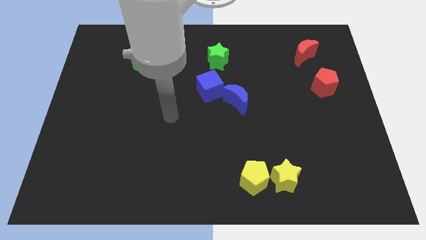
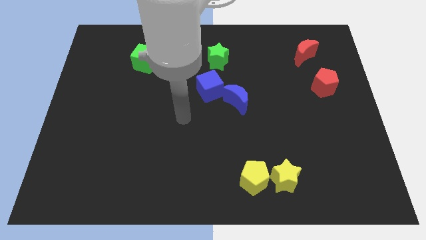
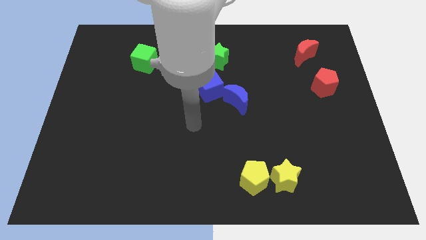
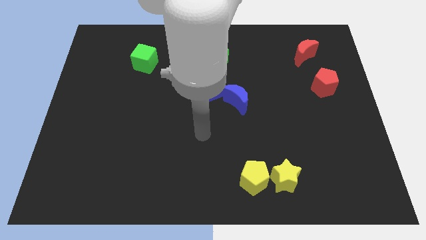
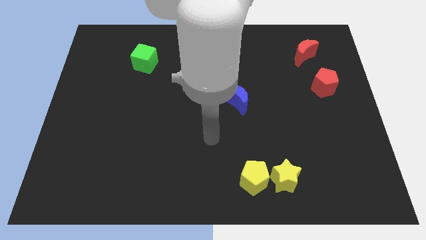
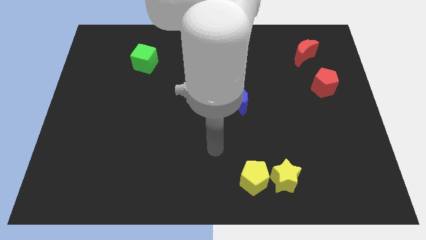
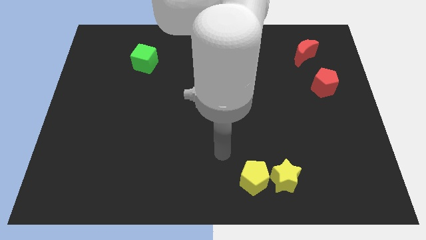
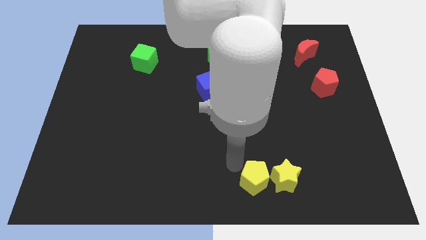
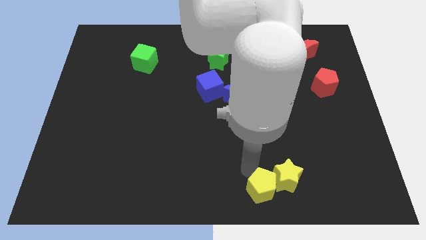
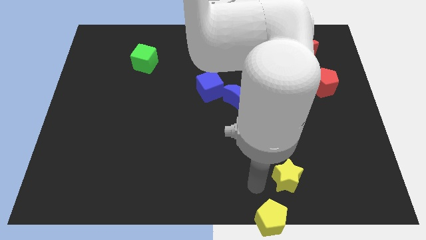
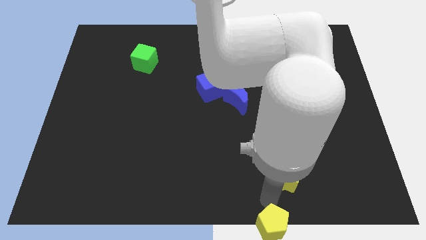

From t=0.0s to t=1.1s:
pull the yellow star apart from the yellow pentagon

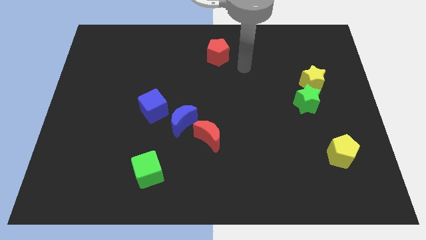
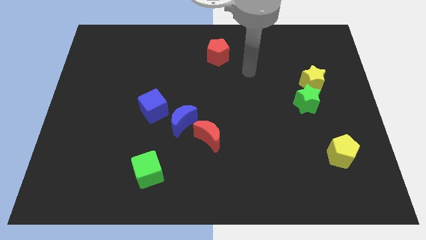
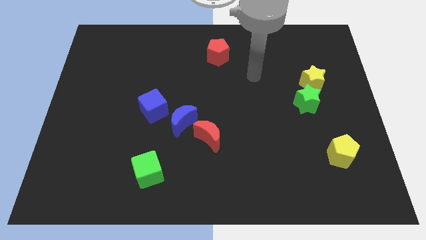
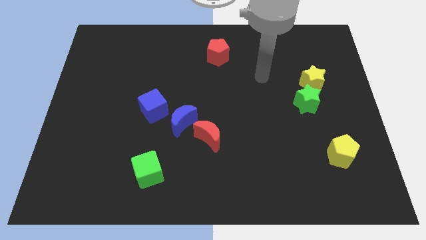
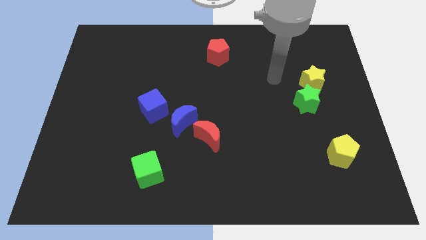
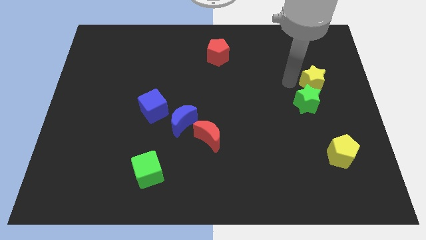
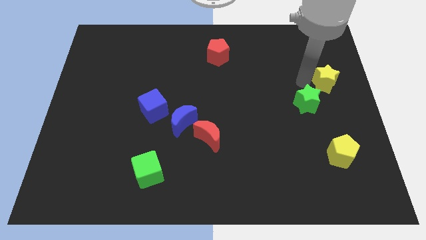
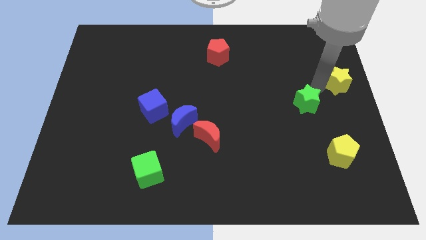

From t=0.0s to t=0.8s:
separate the green star from the yellow star

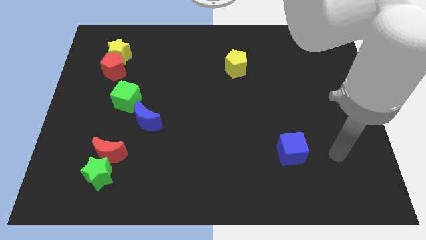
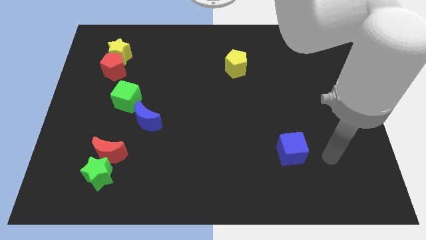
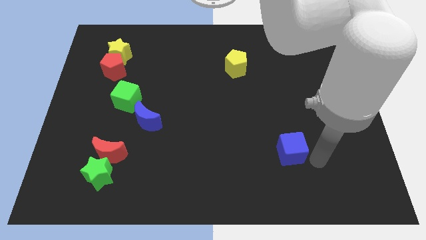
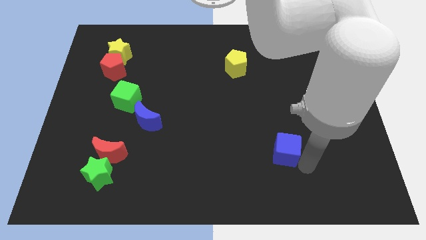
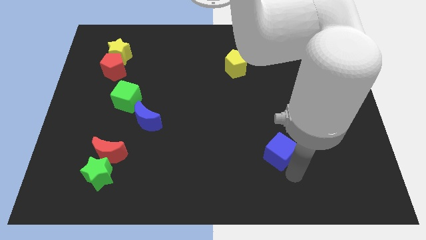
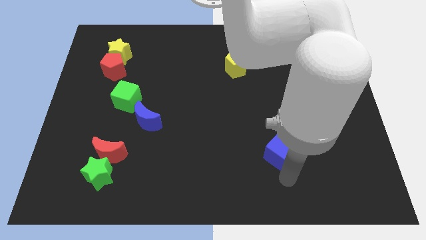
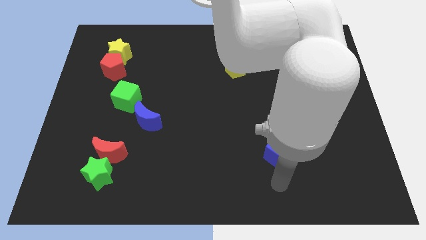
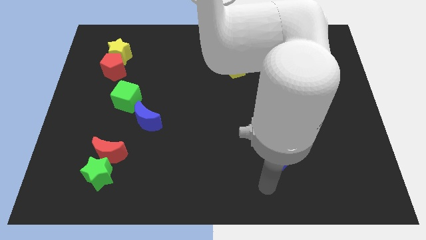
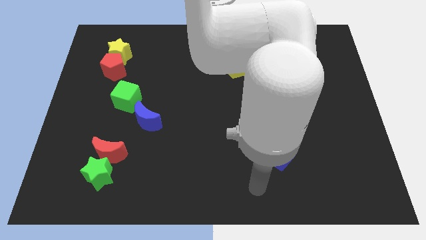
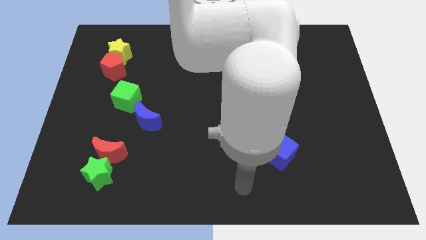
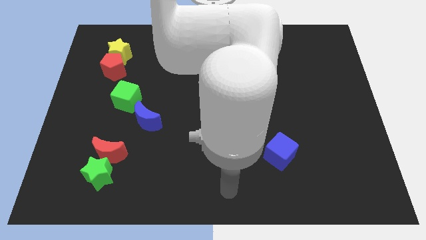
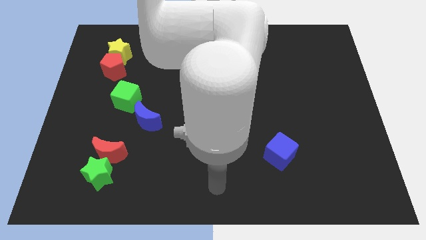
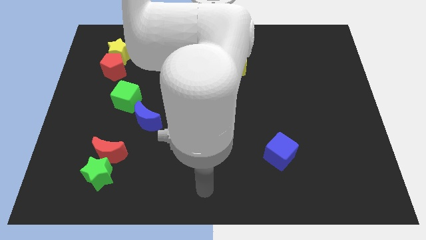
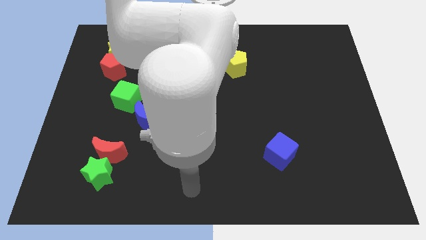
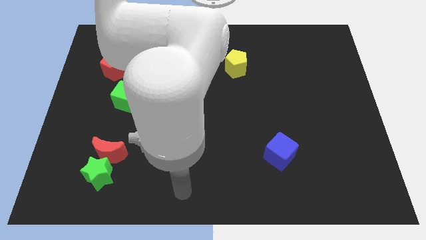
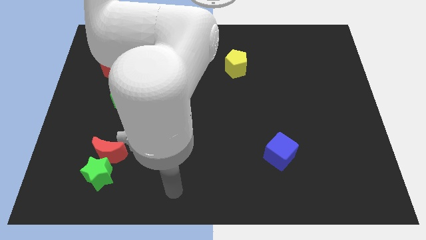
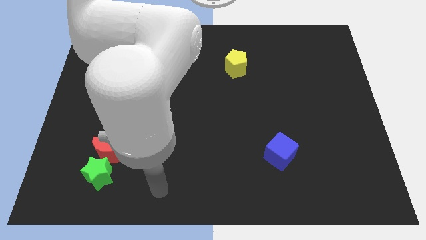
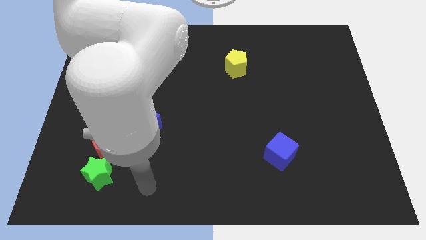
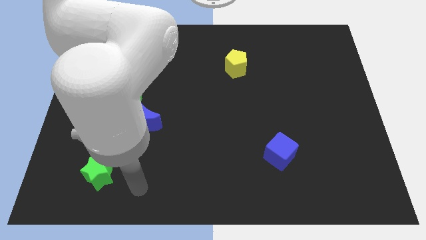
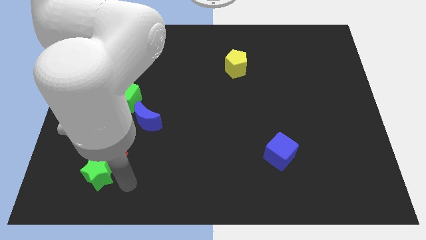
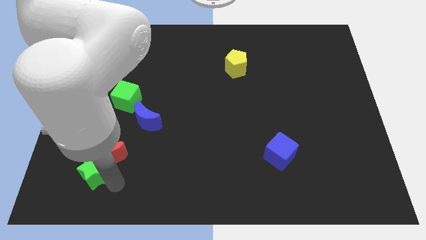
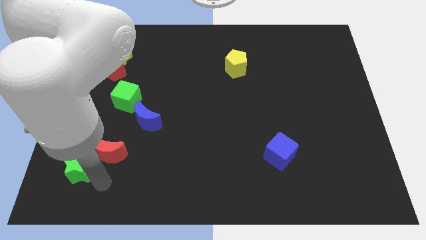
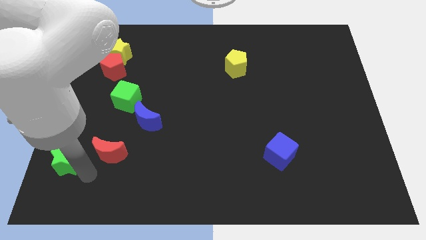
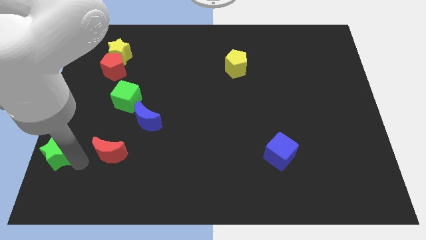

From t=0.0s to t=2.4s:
separate the red moon from the green star

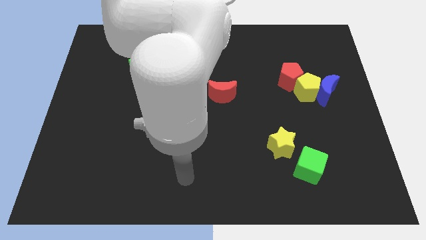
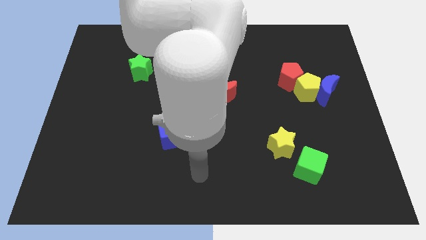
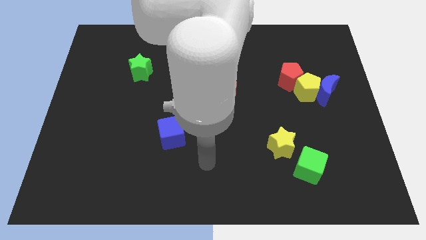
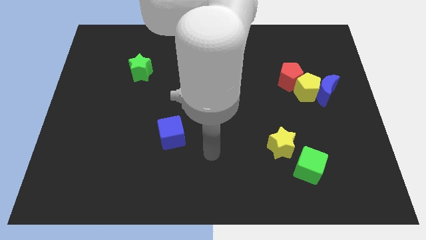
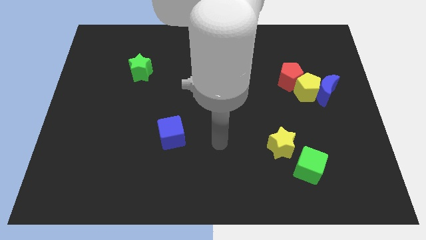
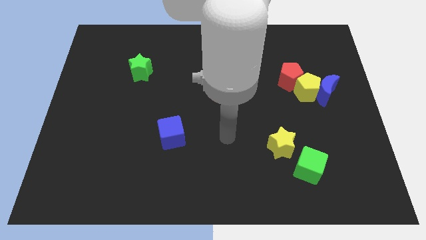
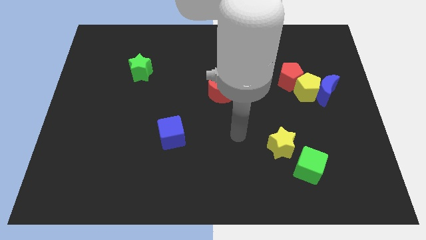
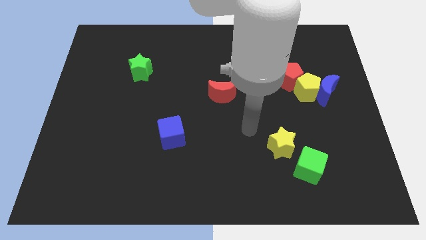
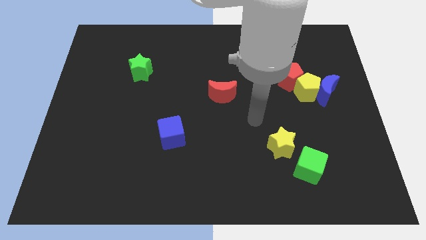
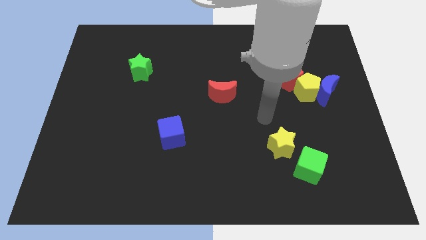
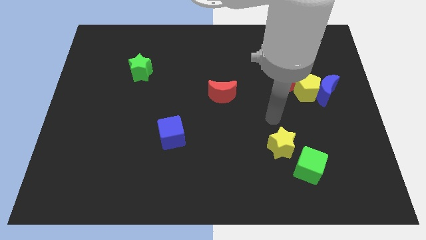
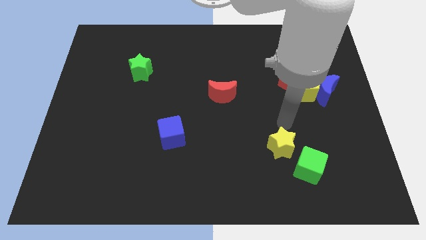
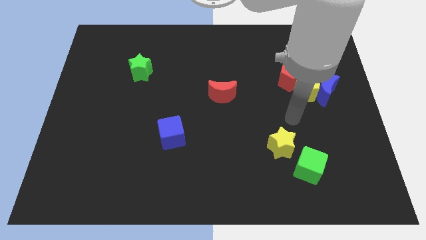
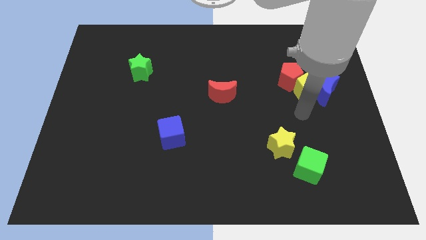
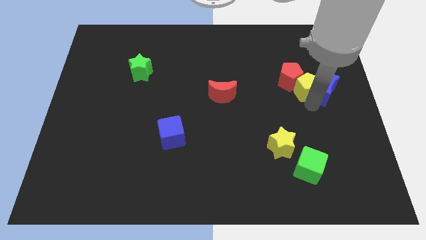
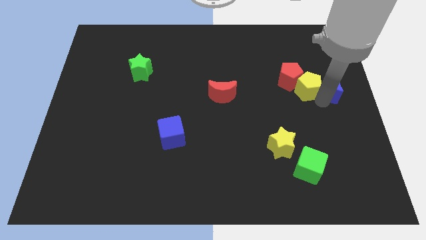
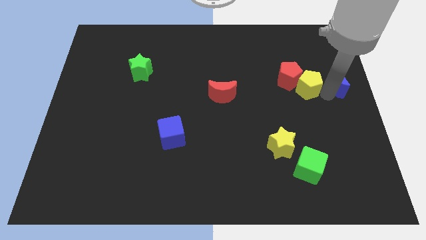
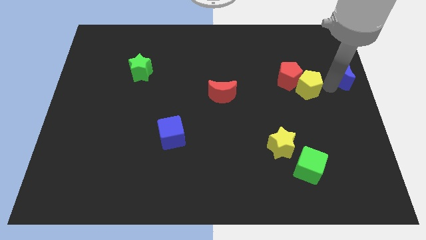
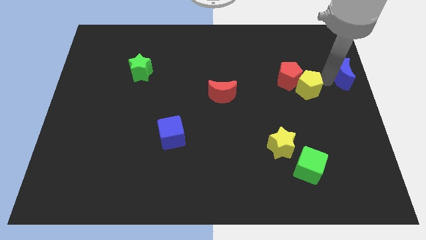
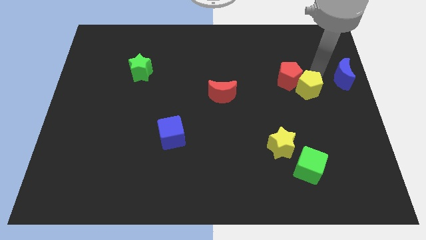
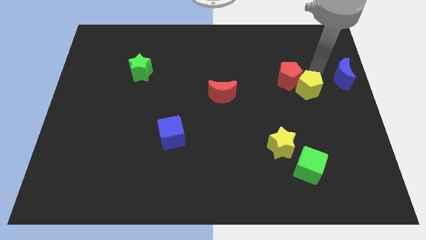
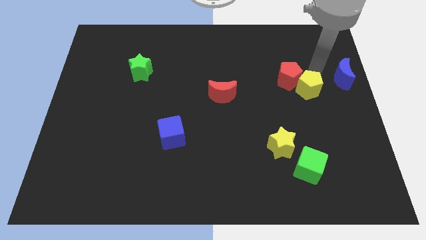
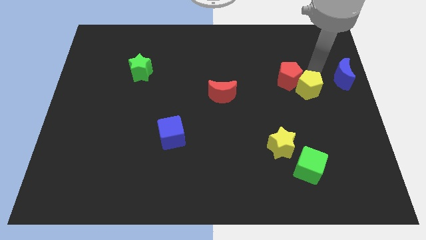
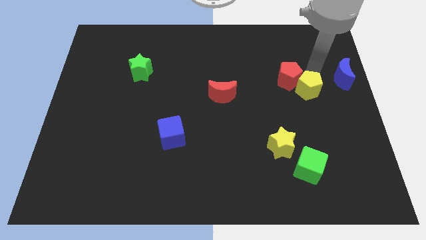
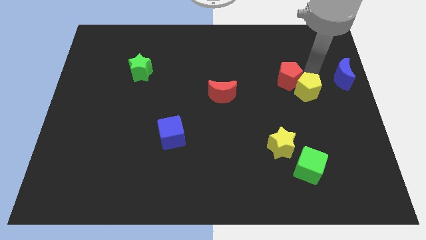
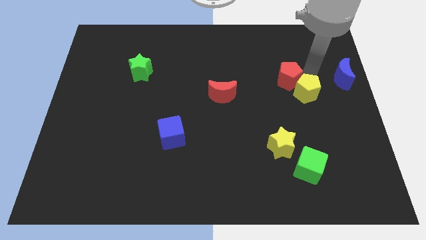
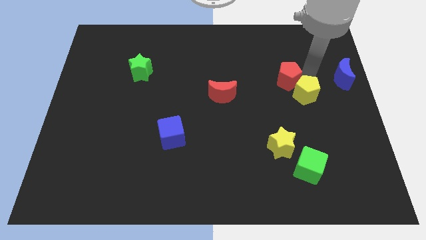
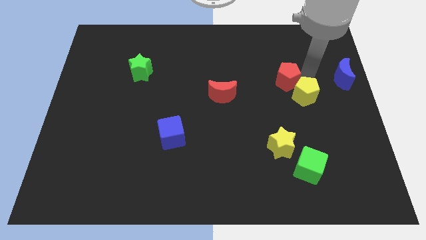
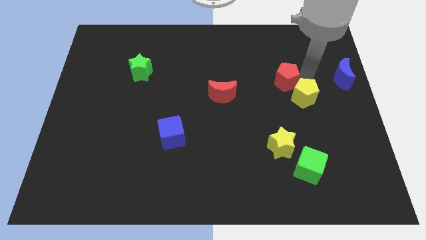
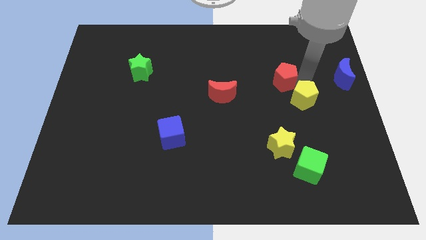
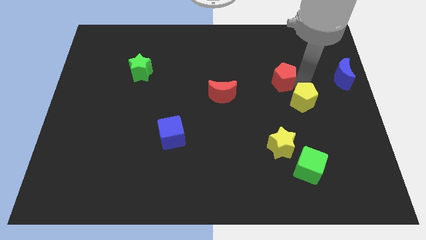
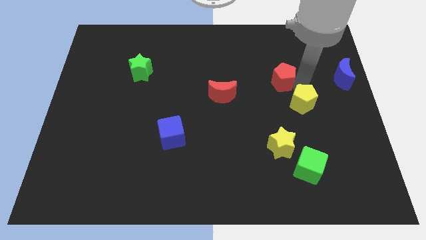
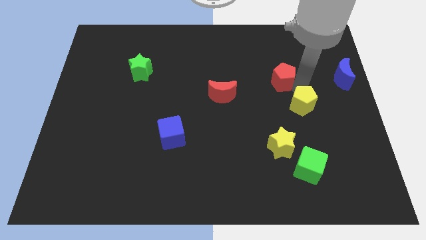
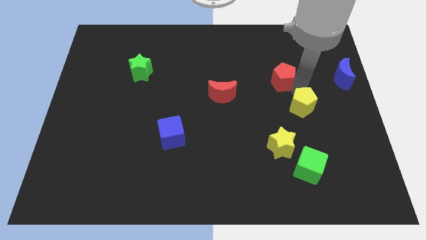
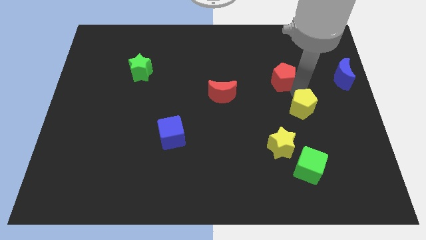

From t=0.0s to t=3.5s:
pull the yellow pentagon apart from the blue moon and red pentagon

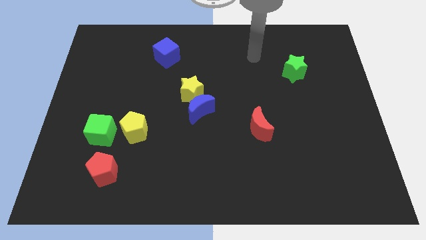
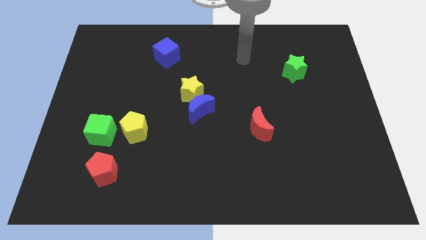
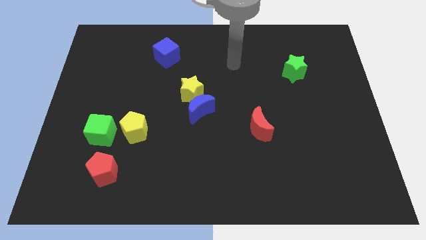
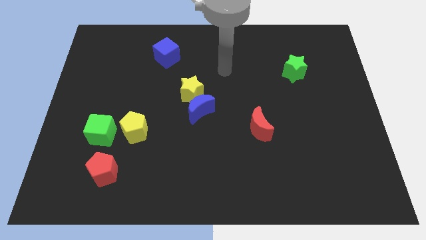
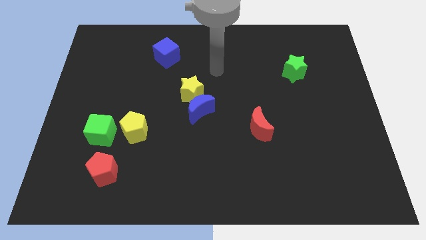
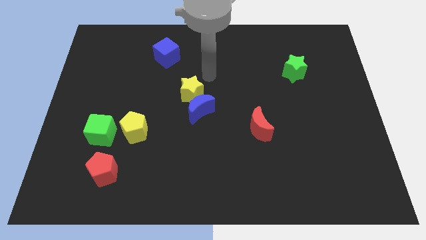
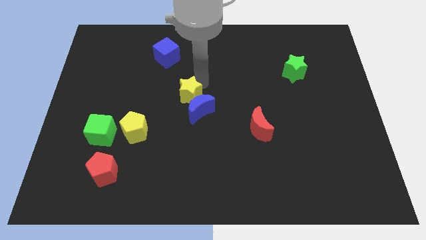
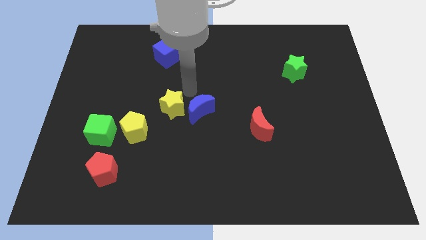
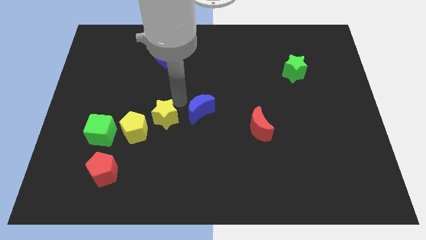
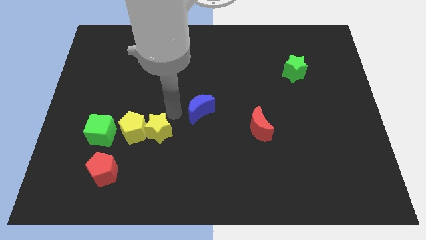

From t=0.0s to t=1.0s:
move the blue moon away from the yellow star

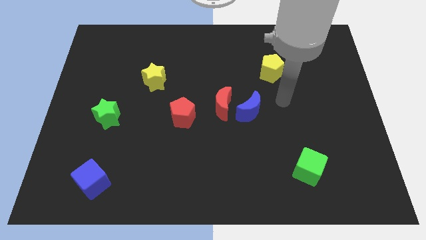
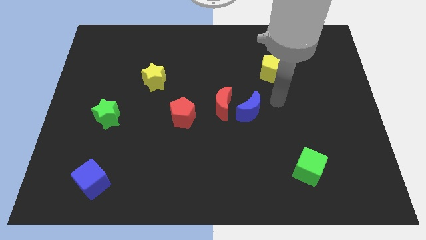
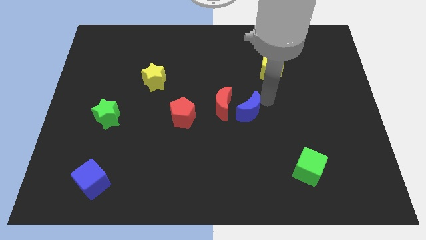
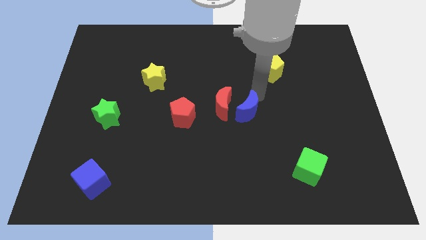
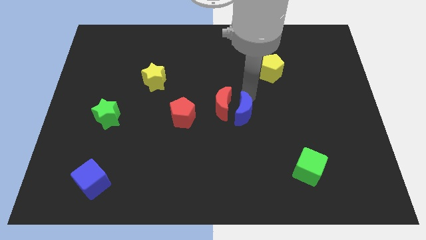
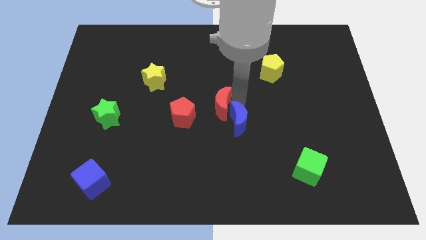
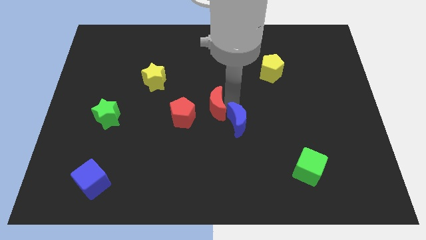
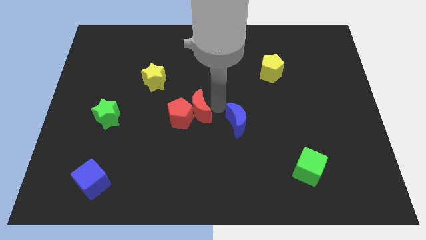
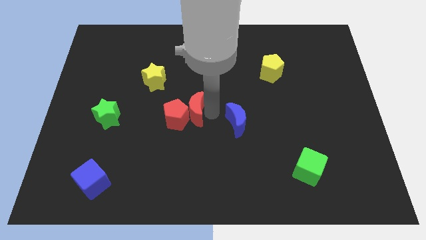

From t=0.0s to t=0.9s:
pull the blue moon apart from the red moon
